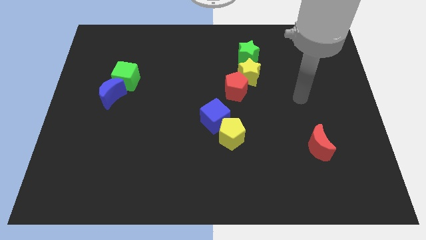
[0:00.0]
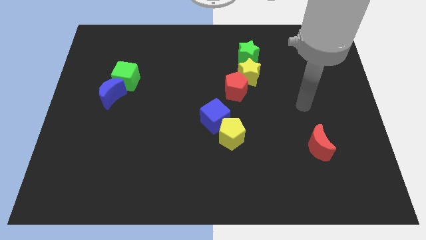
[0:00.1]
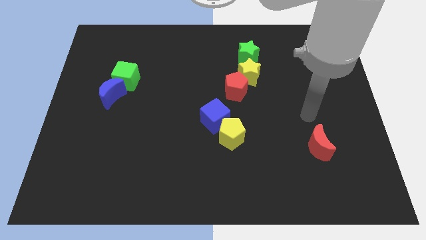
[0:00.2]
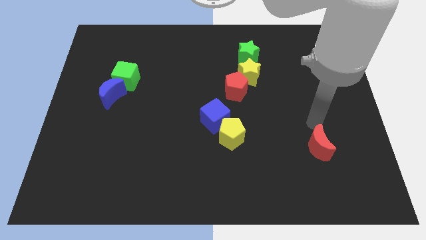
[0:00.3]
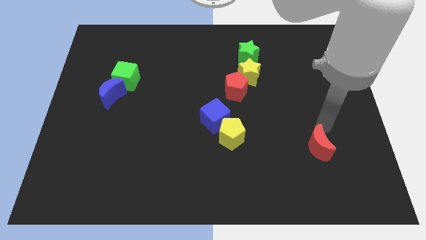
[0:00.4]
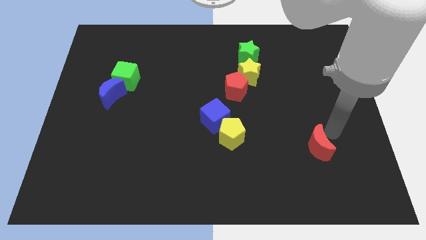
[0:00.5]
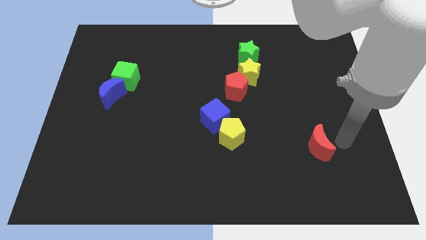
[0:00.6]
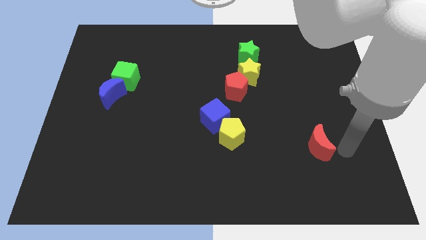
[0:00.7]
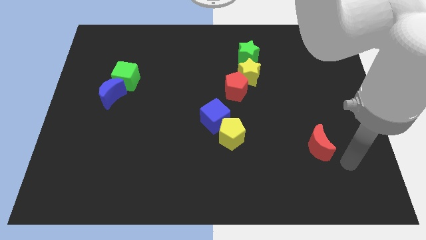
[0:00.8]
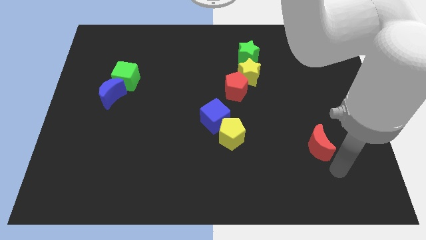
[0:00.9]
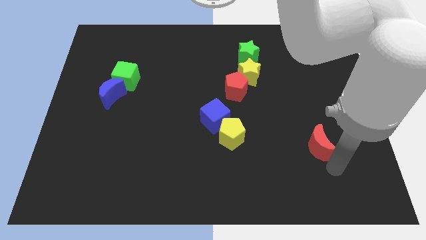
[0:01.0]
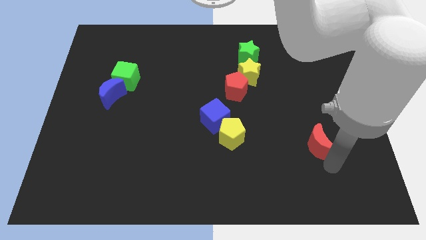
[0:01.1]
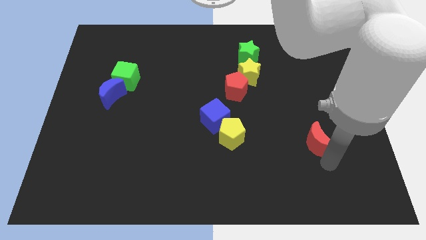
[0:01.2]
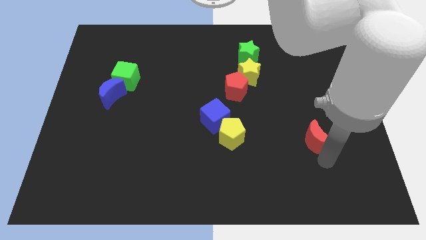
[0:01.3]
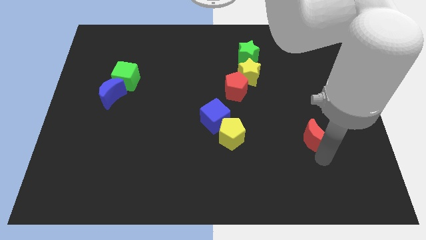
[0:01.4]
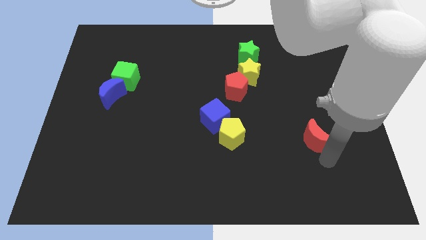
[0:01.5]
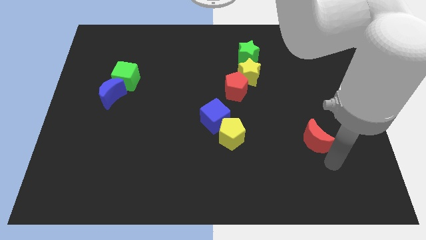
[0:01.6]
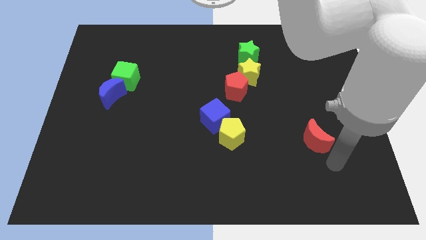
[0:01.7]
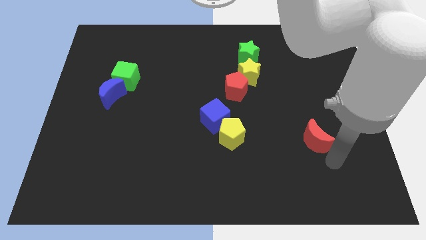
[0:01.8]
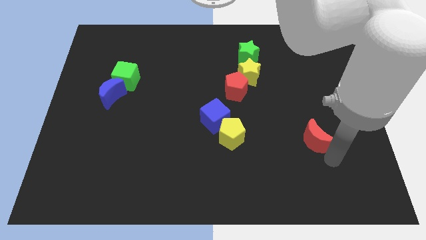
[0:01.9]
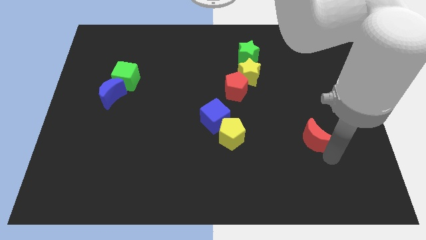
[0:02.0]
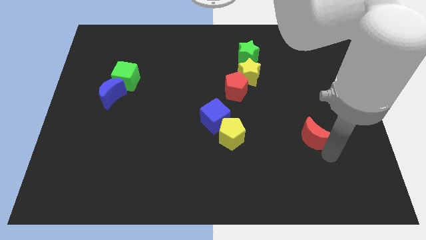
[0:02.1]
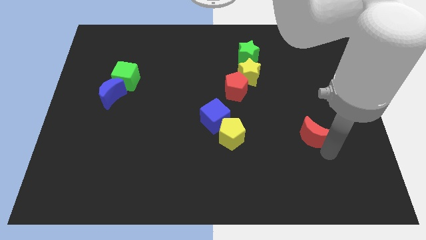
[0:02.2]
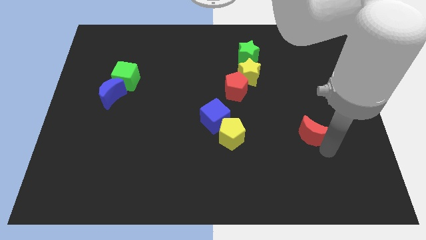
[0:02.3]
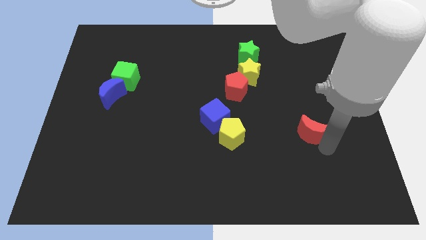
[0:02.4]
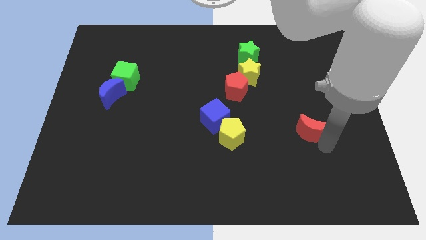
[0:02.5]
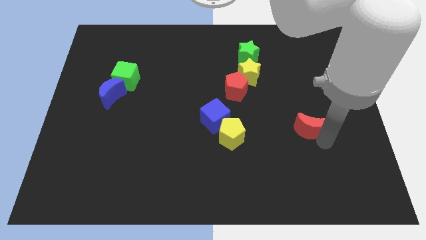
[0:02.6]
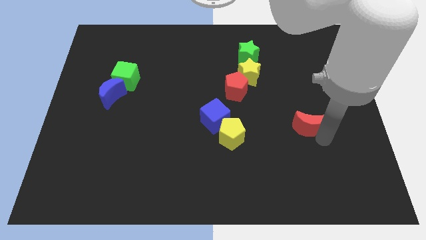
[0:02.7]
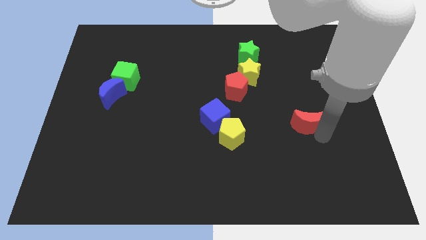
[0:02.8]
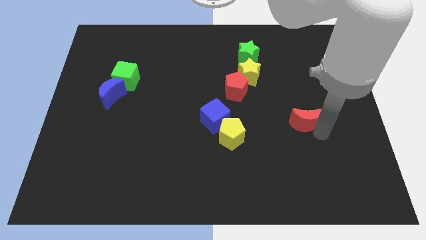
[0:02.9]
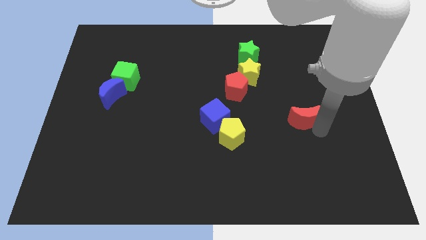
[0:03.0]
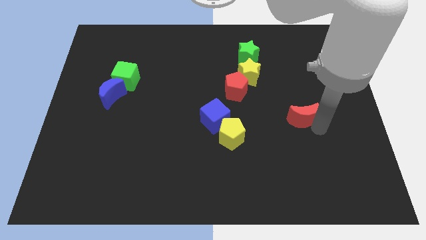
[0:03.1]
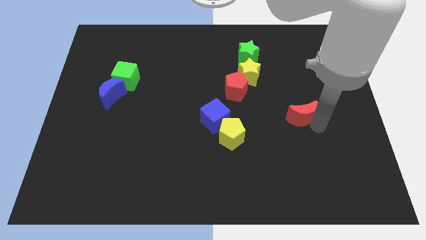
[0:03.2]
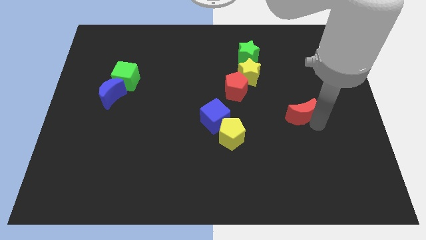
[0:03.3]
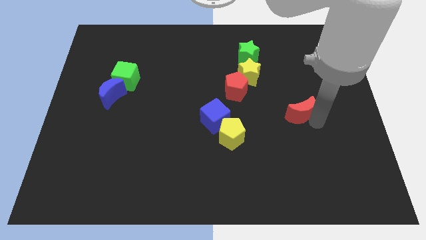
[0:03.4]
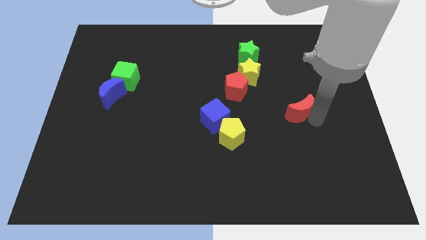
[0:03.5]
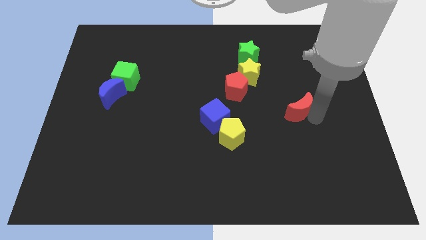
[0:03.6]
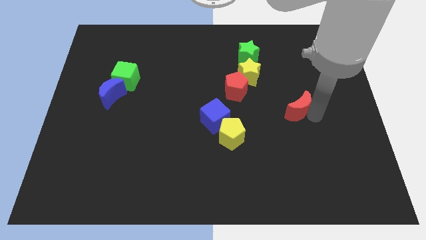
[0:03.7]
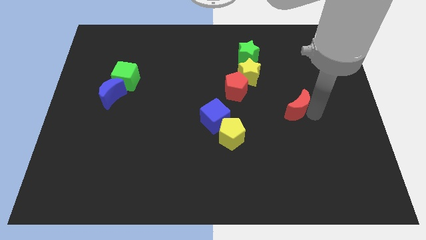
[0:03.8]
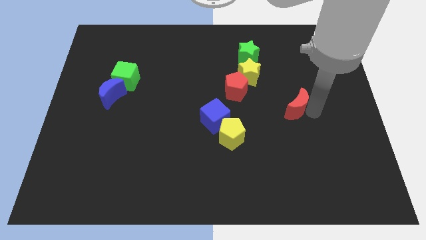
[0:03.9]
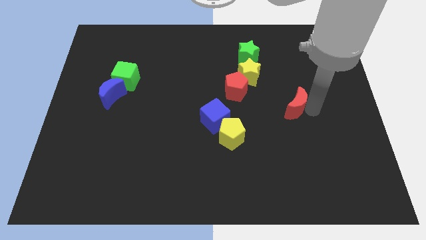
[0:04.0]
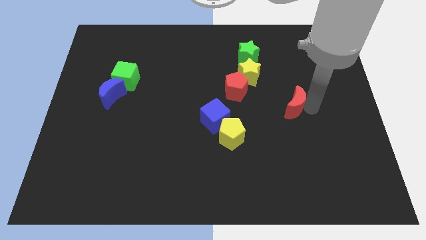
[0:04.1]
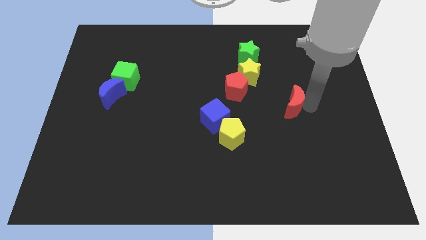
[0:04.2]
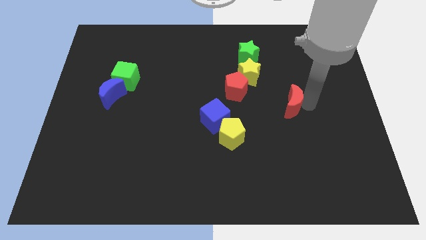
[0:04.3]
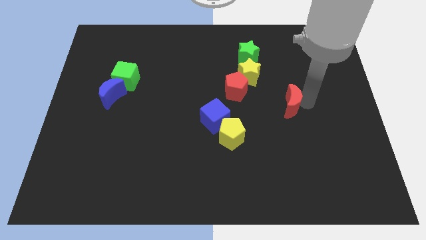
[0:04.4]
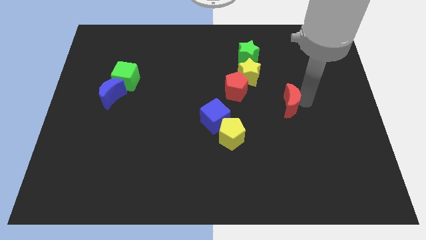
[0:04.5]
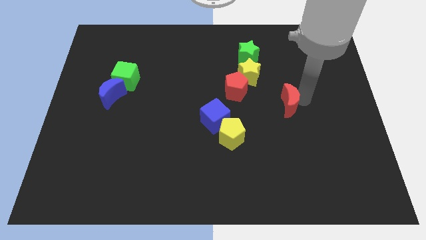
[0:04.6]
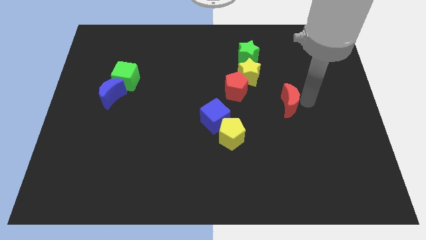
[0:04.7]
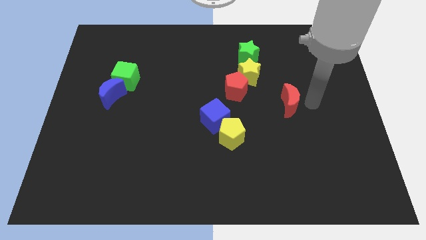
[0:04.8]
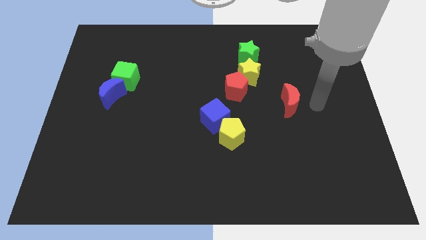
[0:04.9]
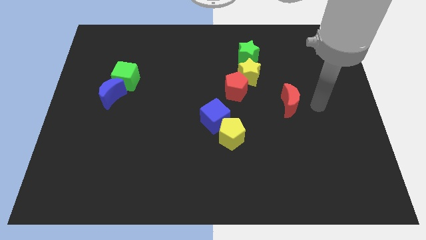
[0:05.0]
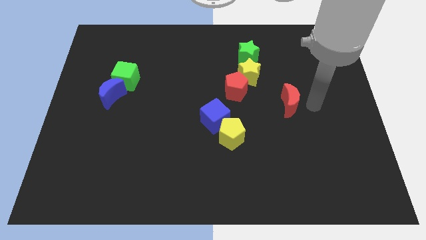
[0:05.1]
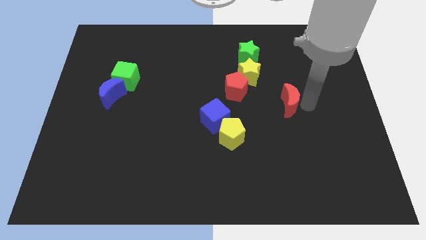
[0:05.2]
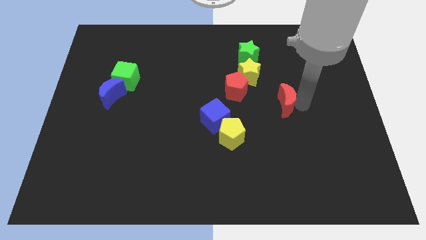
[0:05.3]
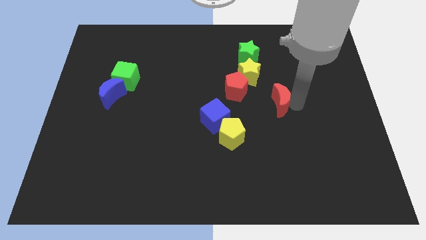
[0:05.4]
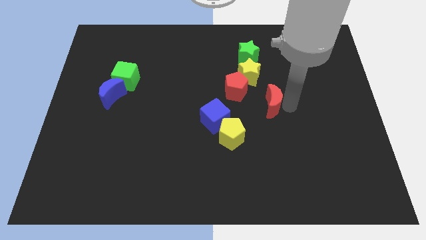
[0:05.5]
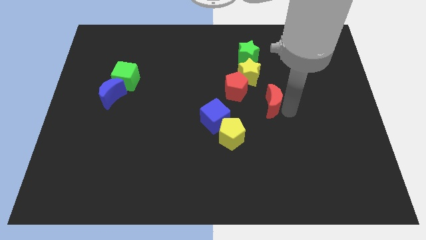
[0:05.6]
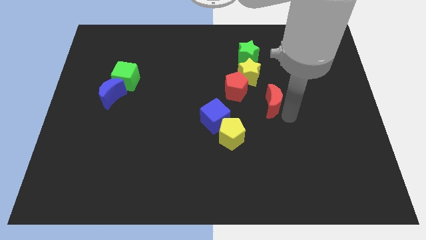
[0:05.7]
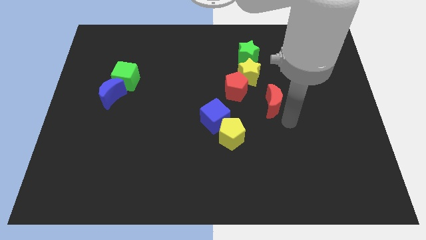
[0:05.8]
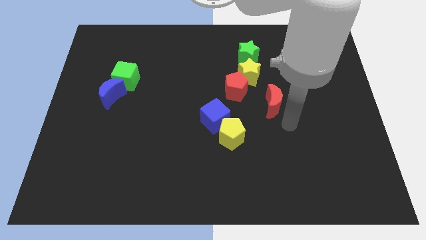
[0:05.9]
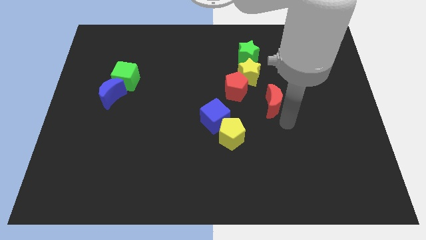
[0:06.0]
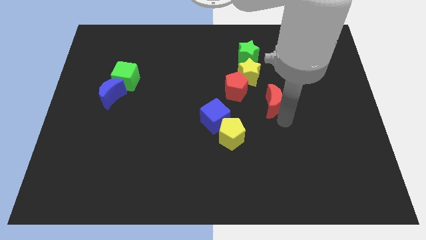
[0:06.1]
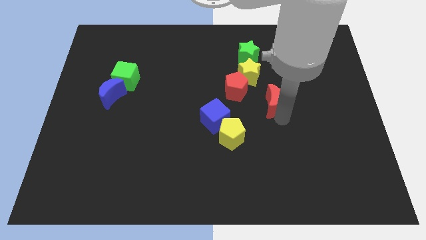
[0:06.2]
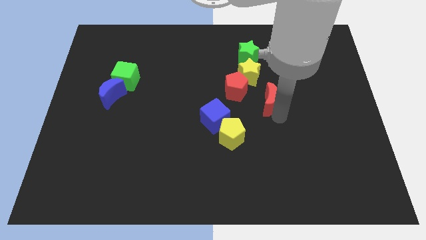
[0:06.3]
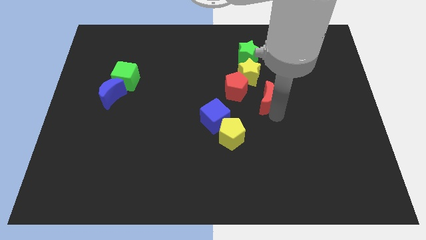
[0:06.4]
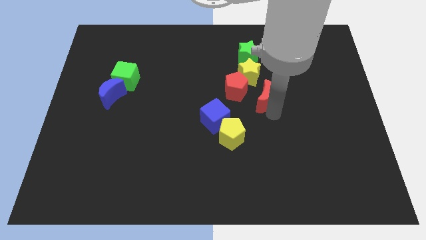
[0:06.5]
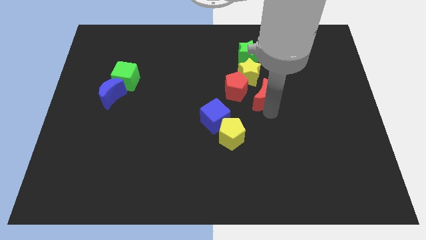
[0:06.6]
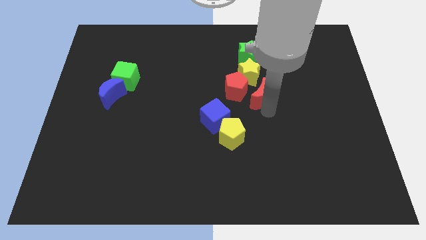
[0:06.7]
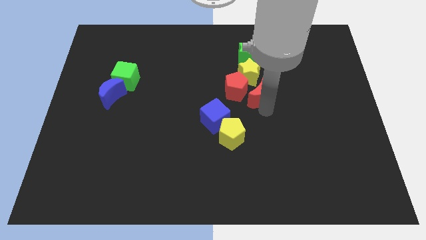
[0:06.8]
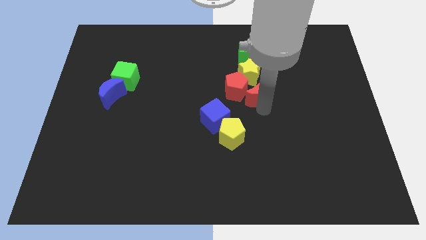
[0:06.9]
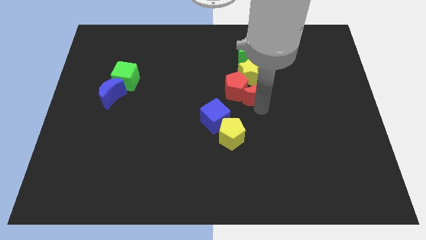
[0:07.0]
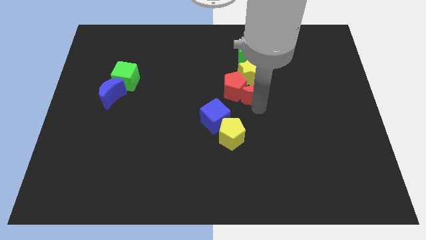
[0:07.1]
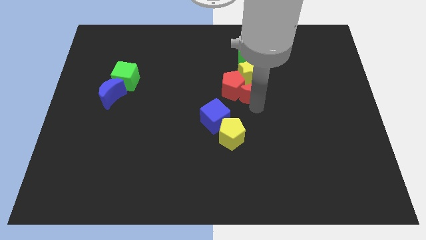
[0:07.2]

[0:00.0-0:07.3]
push the red moon to the yellow star
